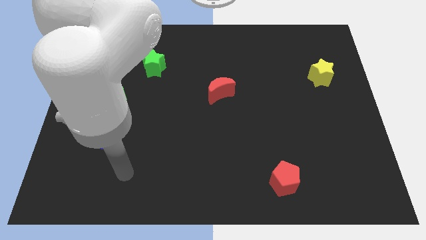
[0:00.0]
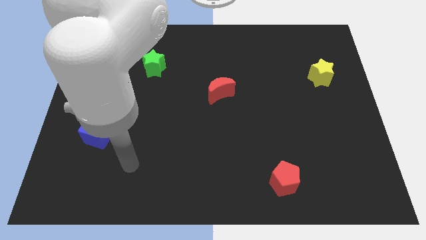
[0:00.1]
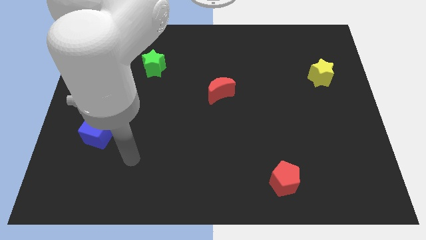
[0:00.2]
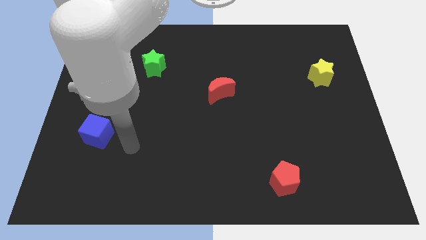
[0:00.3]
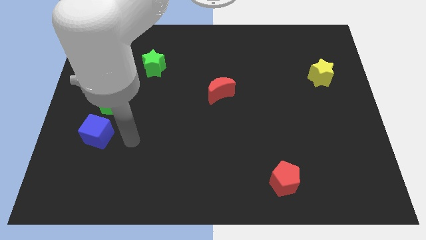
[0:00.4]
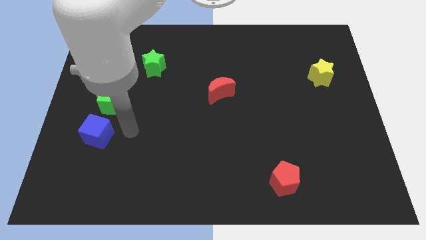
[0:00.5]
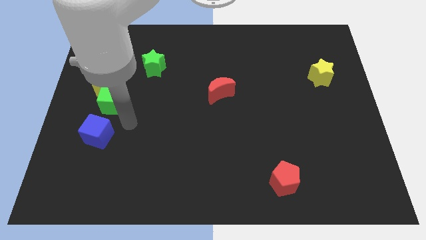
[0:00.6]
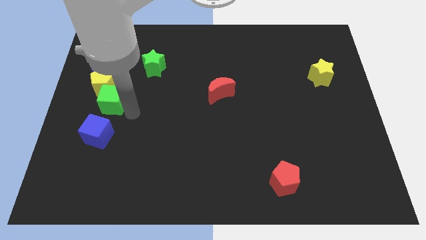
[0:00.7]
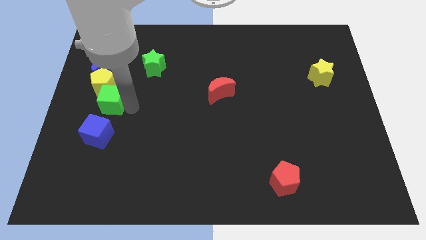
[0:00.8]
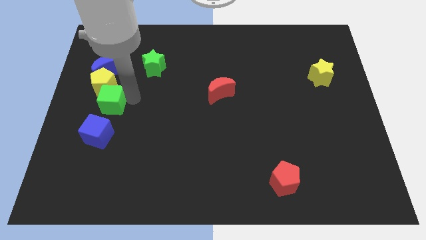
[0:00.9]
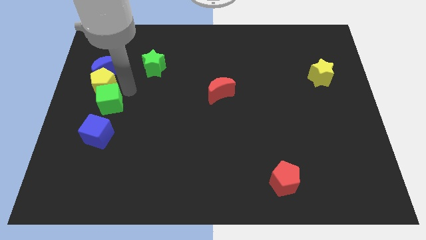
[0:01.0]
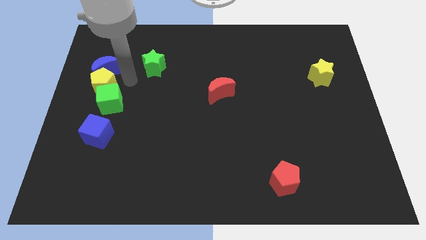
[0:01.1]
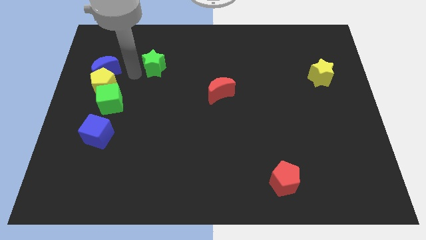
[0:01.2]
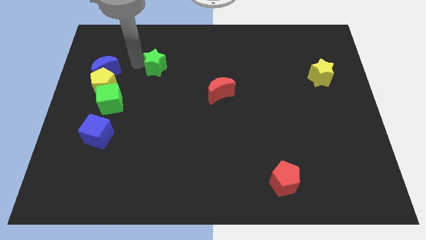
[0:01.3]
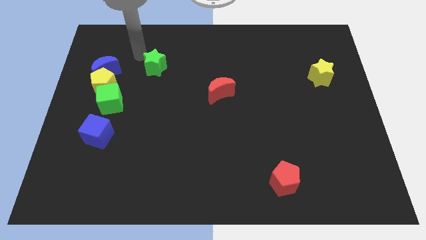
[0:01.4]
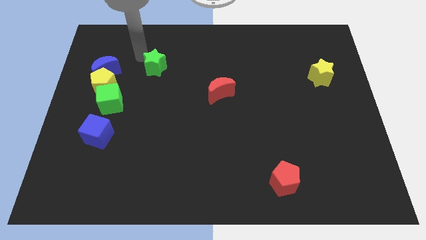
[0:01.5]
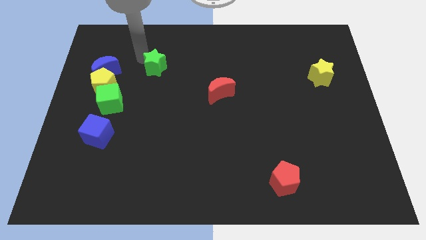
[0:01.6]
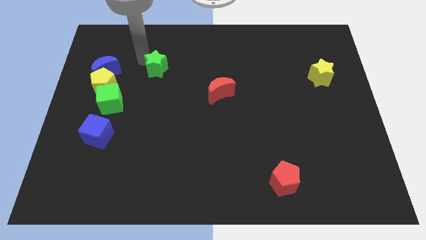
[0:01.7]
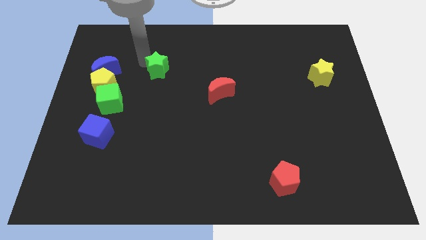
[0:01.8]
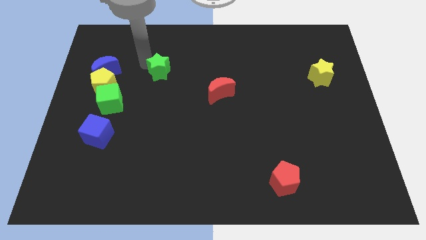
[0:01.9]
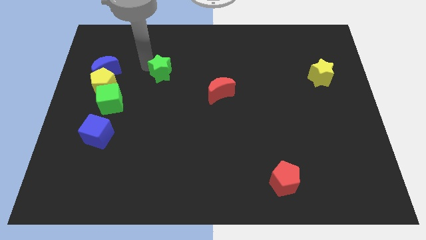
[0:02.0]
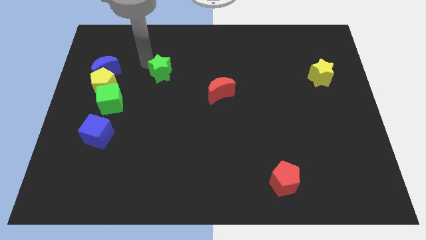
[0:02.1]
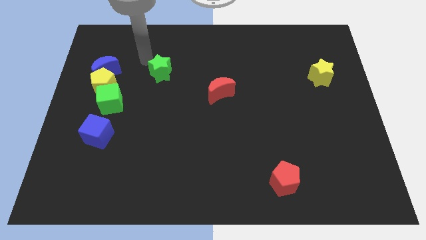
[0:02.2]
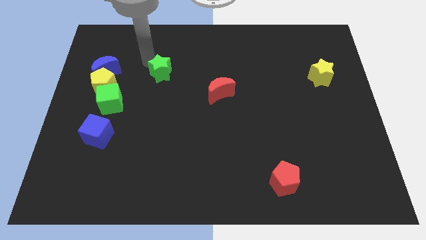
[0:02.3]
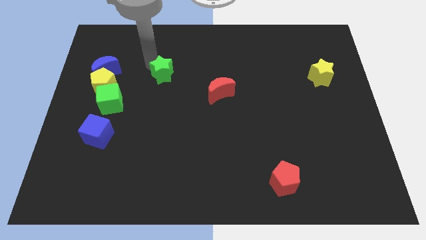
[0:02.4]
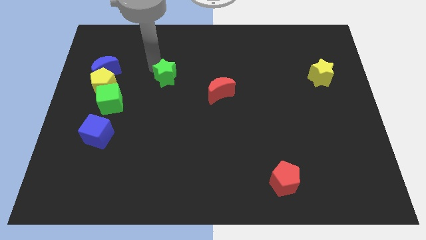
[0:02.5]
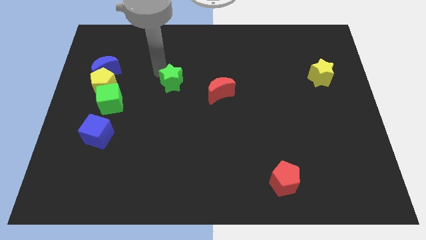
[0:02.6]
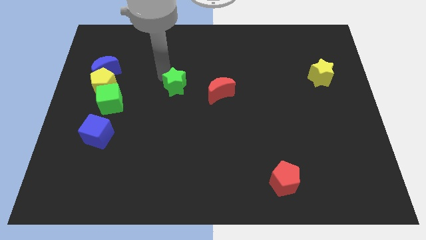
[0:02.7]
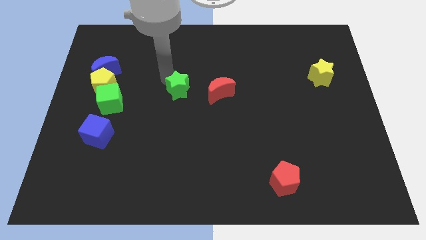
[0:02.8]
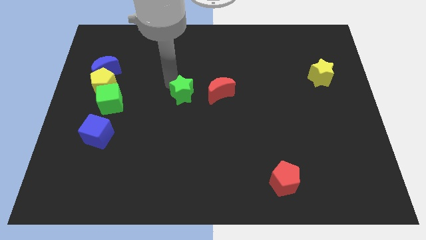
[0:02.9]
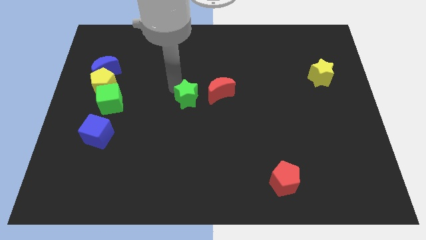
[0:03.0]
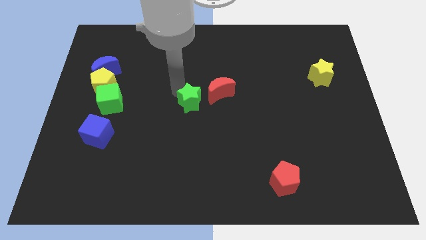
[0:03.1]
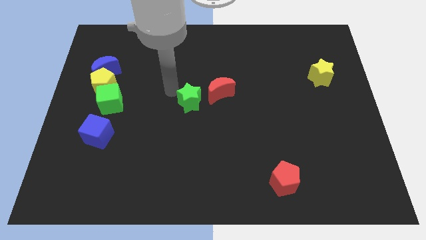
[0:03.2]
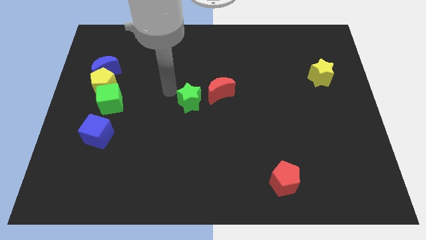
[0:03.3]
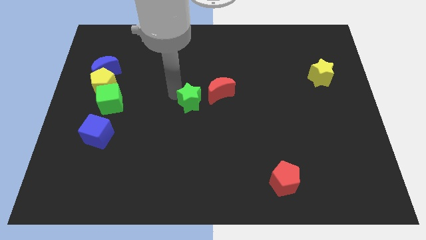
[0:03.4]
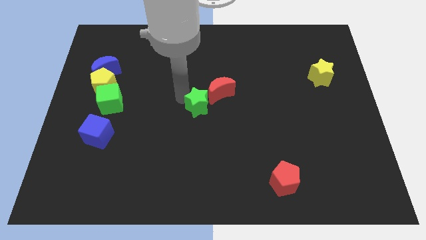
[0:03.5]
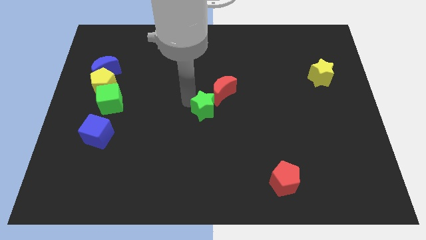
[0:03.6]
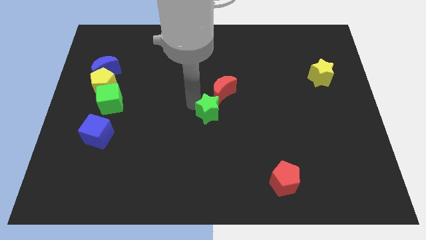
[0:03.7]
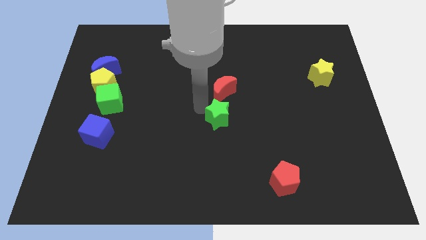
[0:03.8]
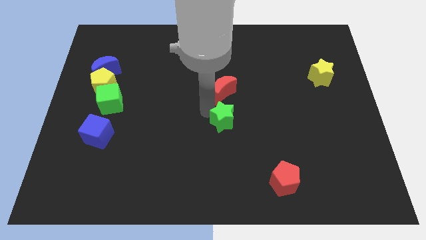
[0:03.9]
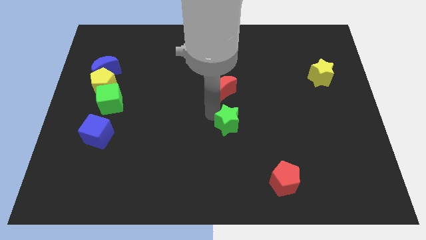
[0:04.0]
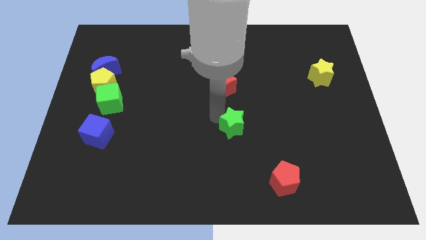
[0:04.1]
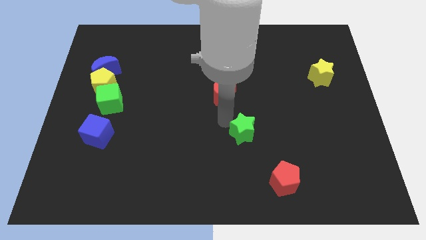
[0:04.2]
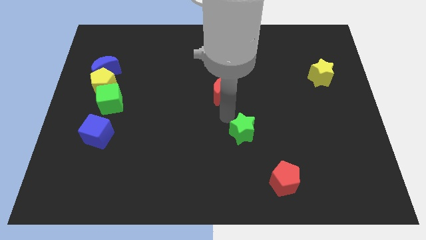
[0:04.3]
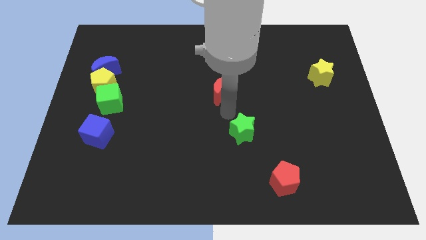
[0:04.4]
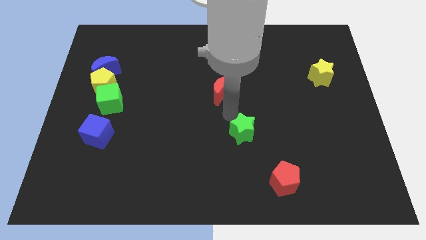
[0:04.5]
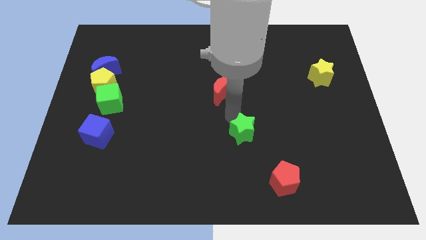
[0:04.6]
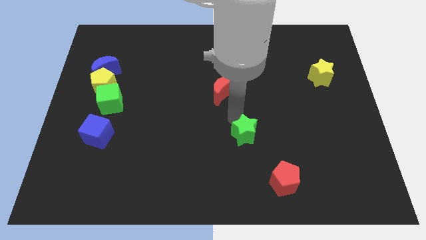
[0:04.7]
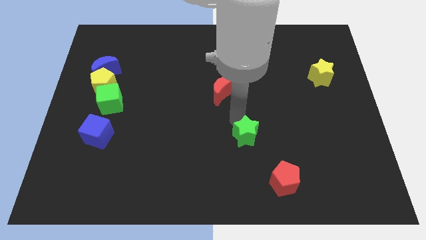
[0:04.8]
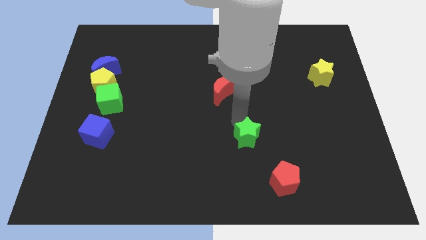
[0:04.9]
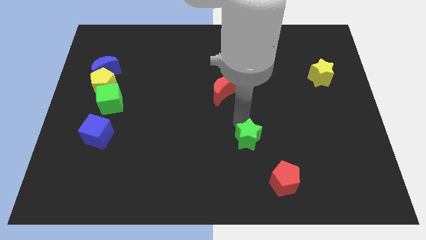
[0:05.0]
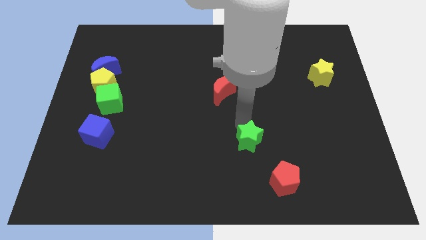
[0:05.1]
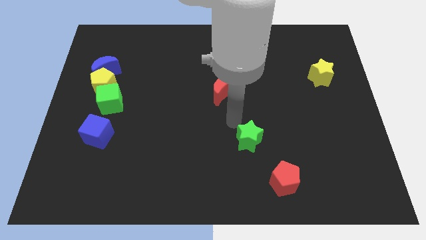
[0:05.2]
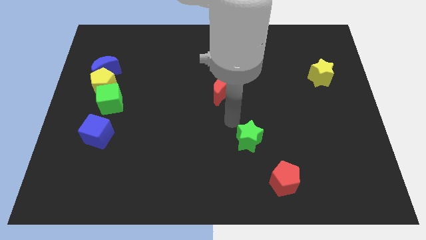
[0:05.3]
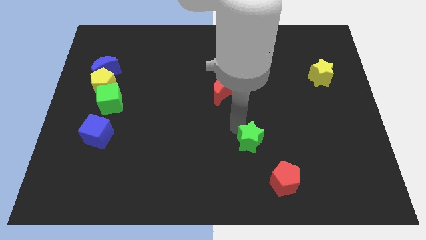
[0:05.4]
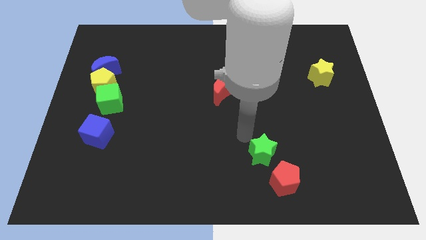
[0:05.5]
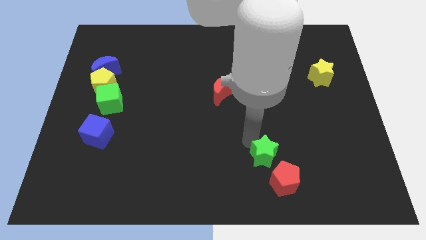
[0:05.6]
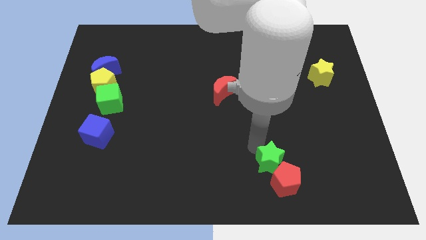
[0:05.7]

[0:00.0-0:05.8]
slide the green star next to the red pentagon

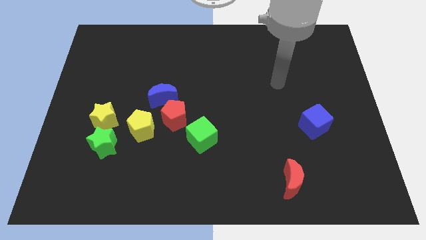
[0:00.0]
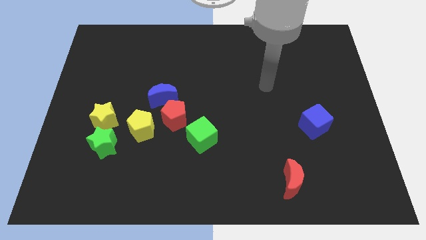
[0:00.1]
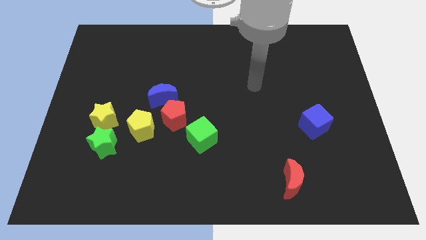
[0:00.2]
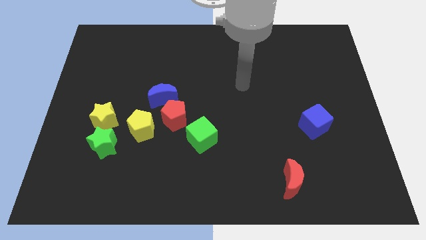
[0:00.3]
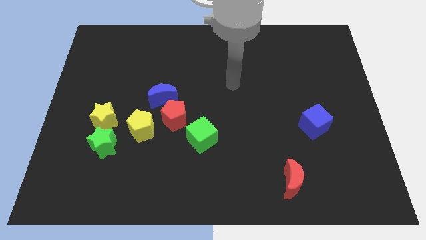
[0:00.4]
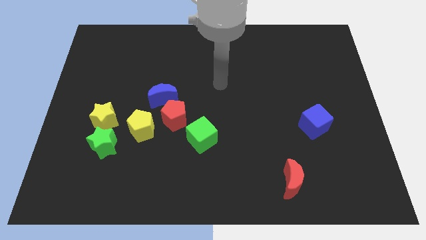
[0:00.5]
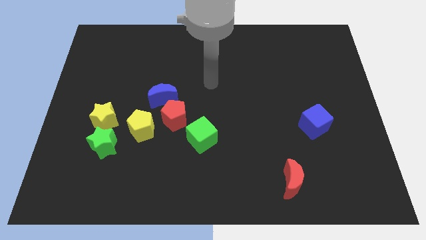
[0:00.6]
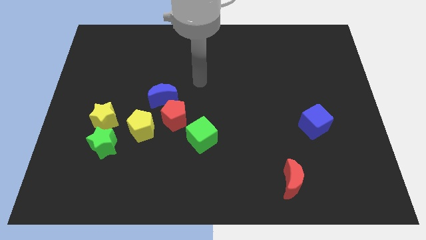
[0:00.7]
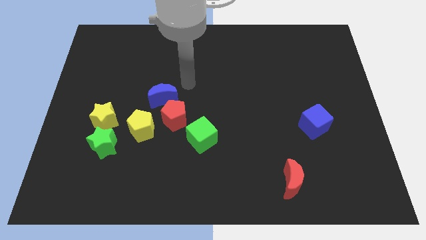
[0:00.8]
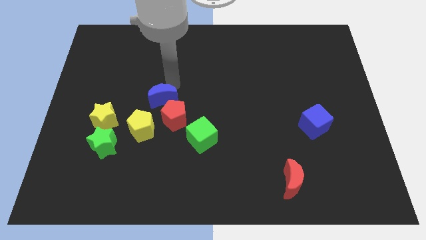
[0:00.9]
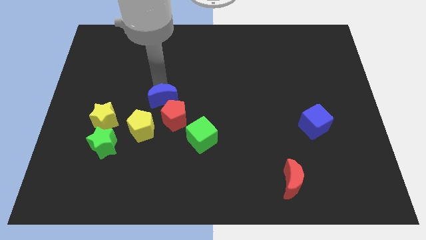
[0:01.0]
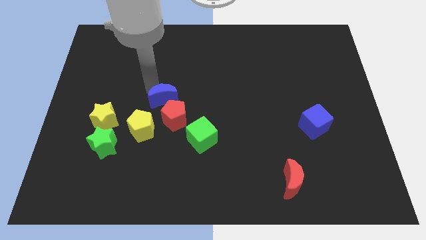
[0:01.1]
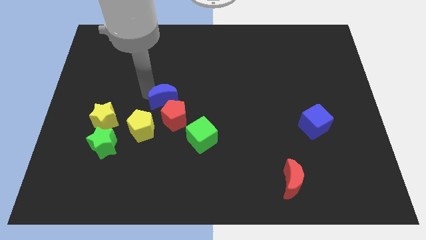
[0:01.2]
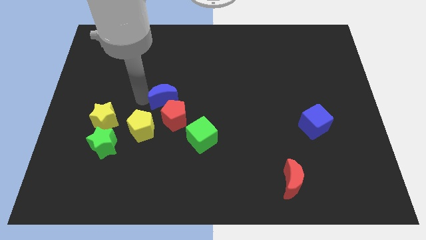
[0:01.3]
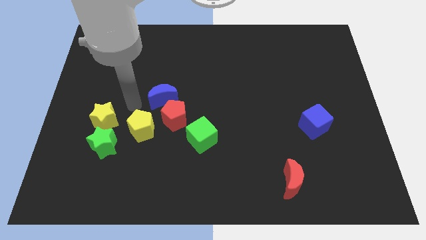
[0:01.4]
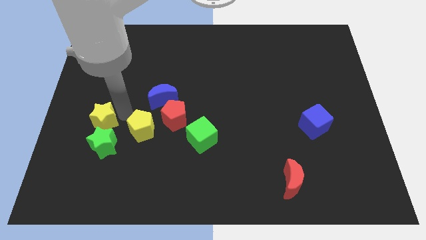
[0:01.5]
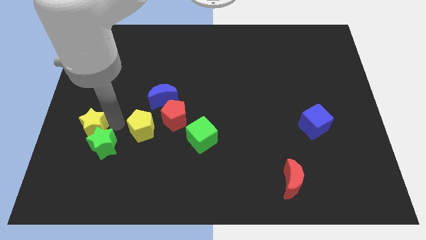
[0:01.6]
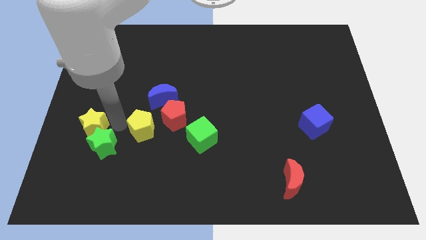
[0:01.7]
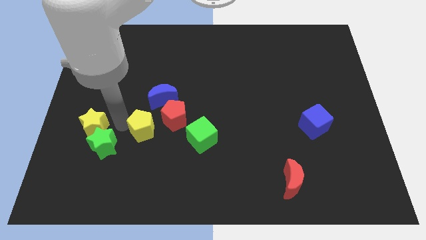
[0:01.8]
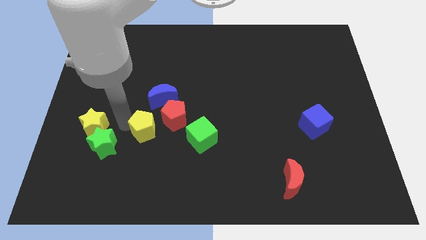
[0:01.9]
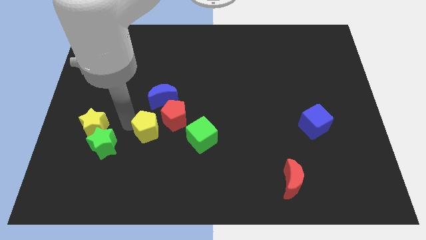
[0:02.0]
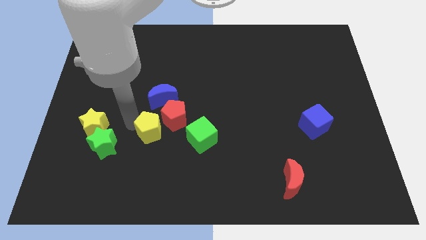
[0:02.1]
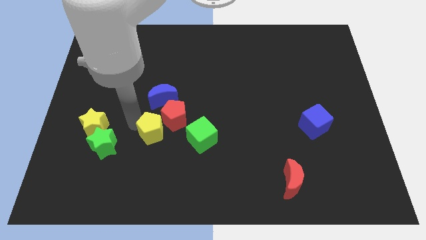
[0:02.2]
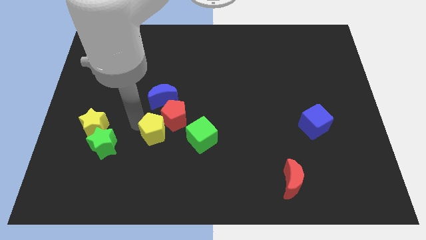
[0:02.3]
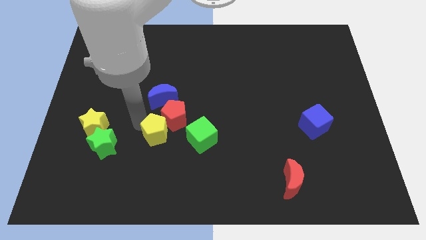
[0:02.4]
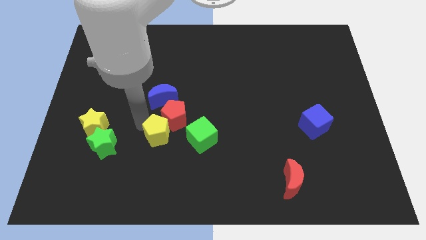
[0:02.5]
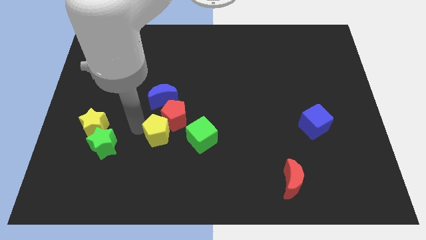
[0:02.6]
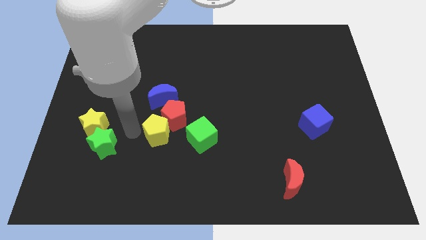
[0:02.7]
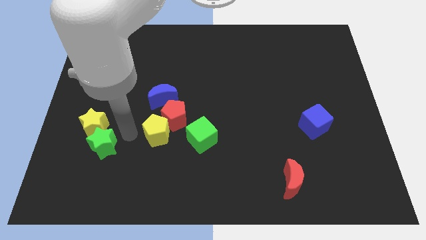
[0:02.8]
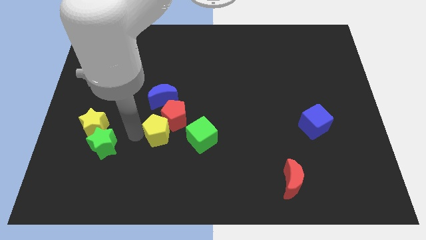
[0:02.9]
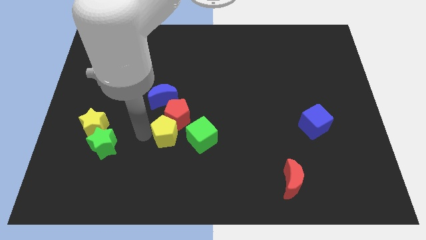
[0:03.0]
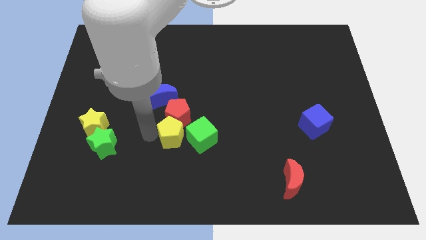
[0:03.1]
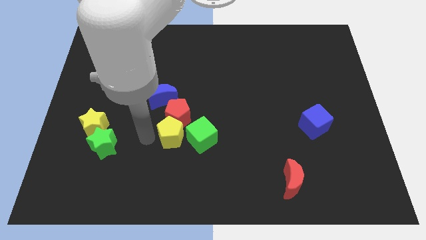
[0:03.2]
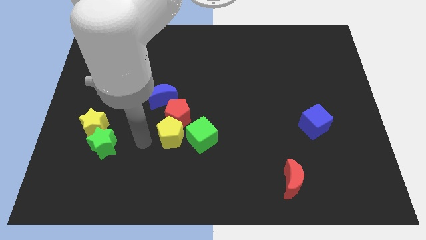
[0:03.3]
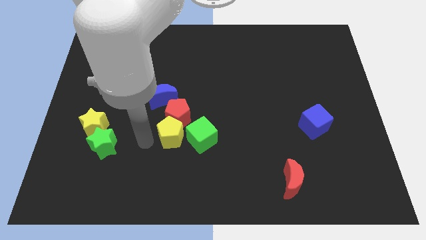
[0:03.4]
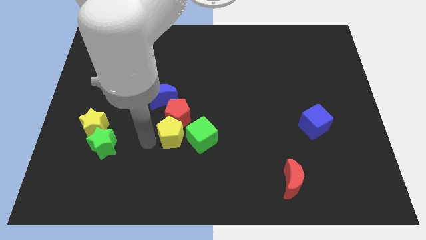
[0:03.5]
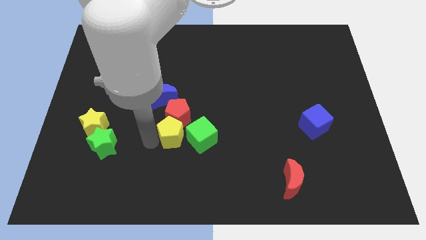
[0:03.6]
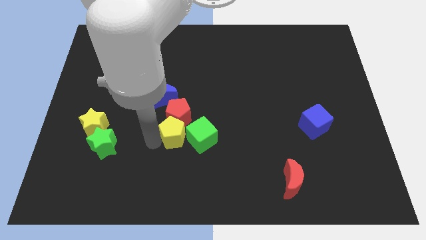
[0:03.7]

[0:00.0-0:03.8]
put the yellow pentagon close to the green cube
